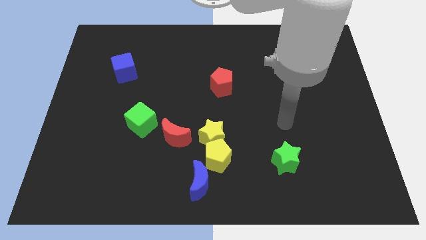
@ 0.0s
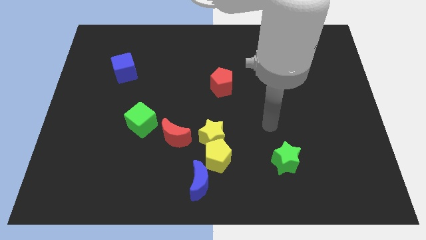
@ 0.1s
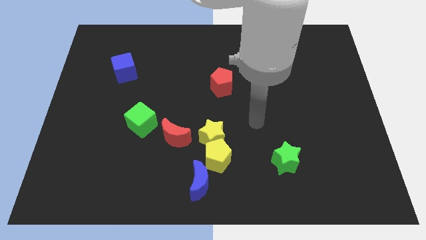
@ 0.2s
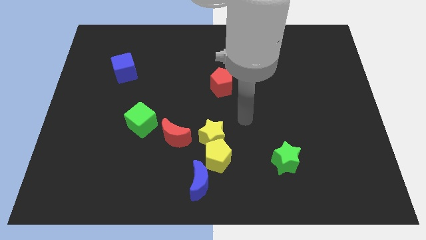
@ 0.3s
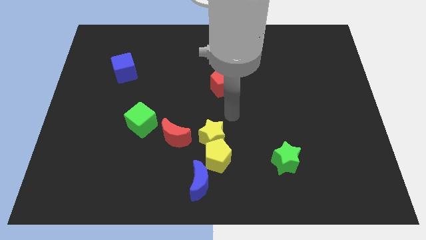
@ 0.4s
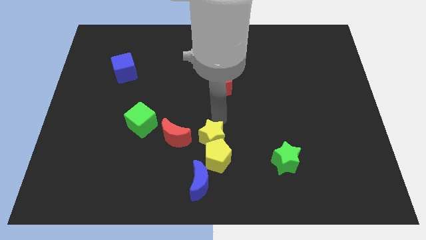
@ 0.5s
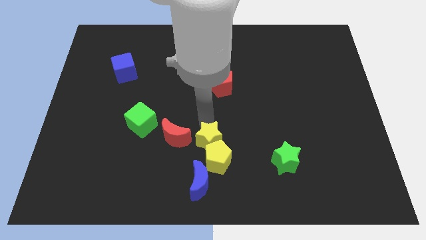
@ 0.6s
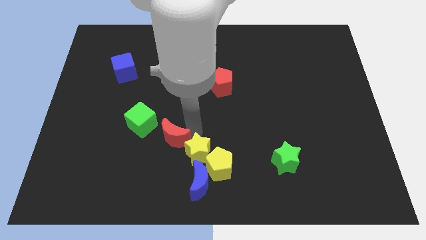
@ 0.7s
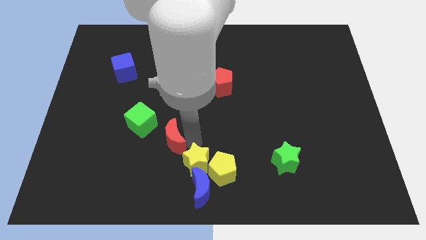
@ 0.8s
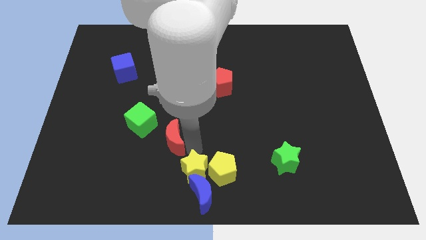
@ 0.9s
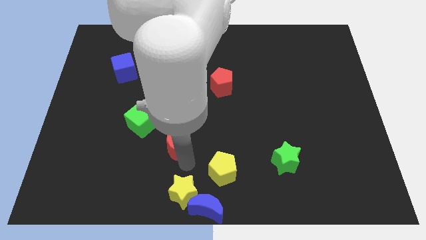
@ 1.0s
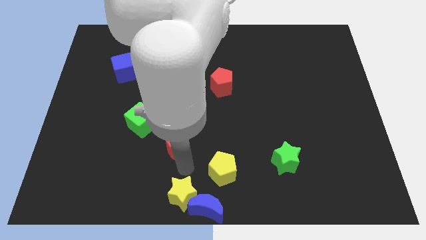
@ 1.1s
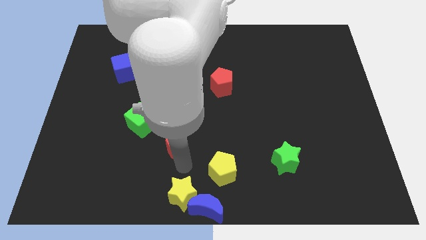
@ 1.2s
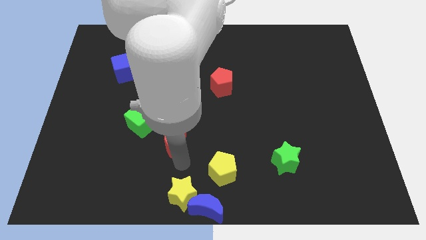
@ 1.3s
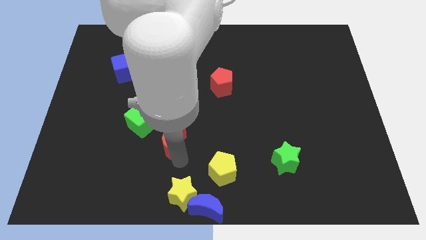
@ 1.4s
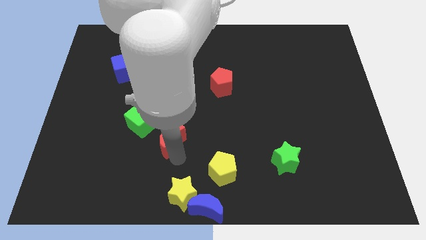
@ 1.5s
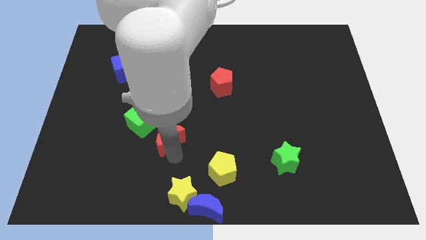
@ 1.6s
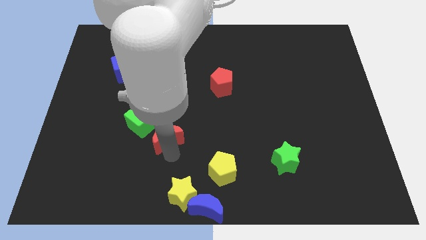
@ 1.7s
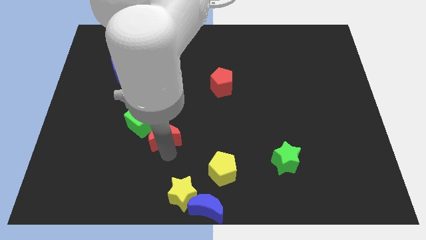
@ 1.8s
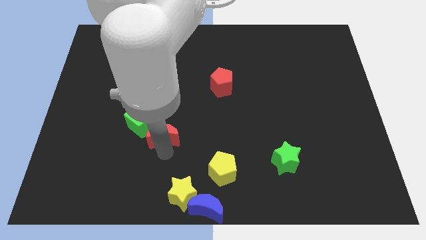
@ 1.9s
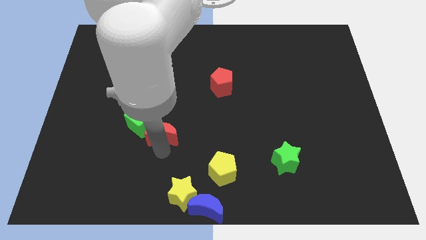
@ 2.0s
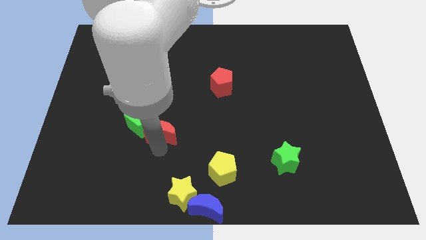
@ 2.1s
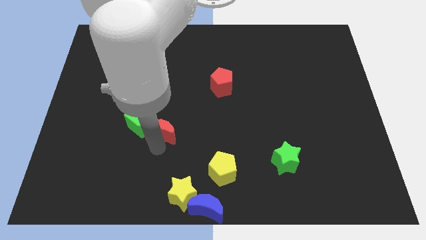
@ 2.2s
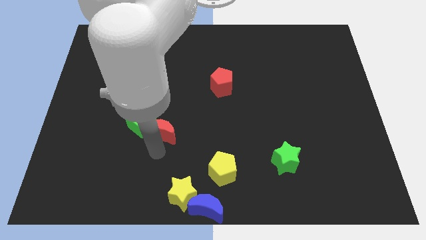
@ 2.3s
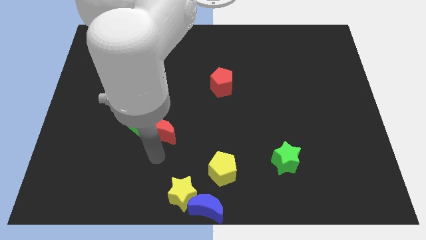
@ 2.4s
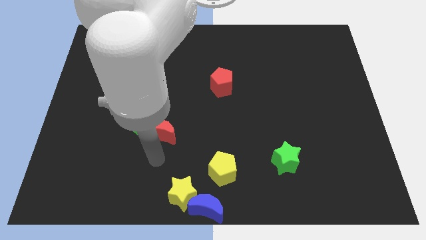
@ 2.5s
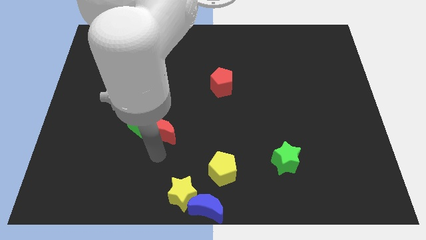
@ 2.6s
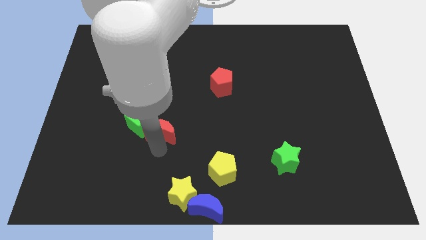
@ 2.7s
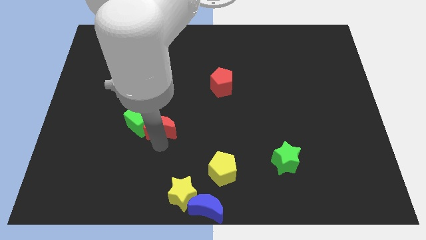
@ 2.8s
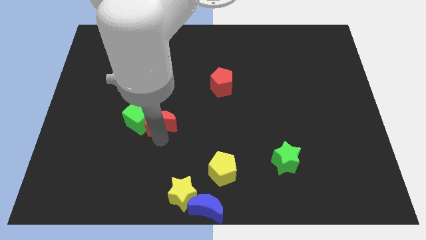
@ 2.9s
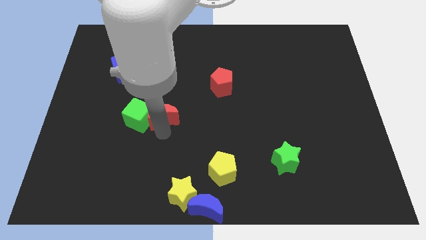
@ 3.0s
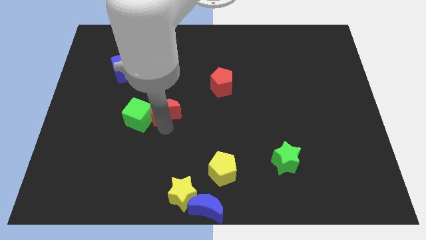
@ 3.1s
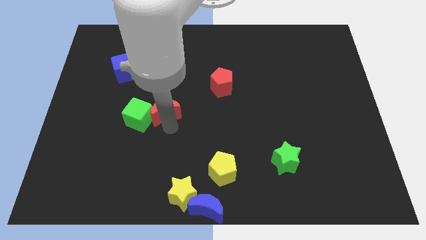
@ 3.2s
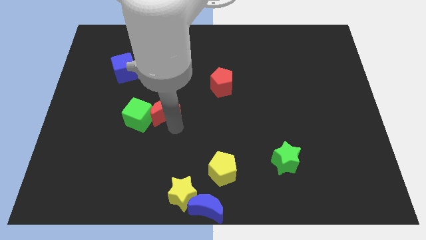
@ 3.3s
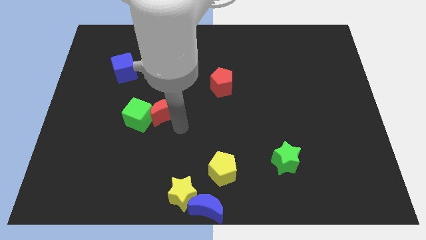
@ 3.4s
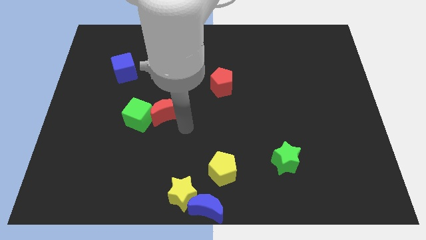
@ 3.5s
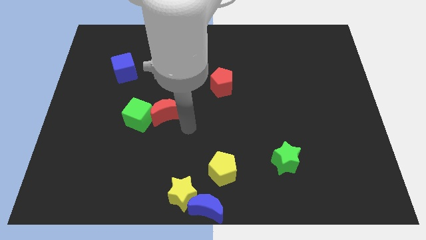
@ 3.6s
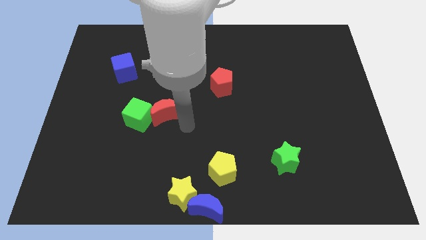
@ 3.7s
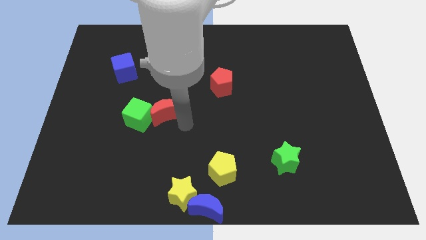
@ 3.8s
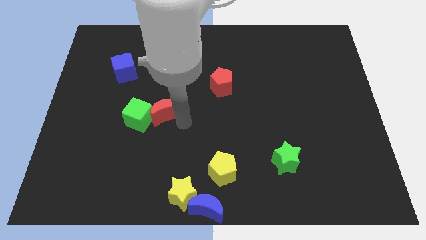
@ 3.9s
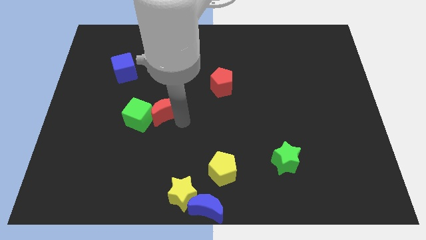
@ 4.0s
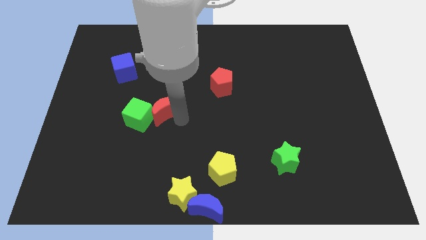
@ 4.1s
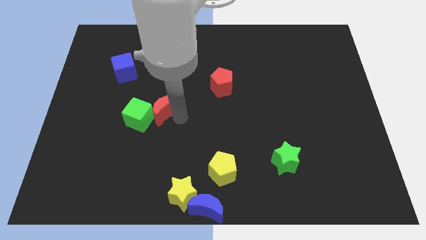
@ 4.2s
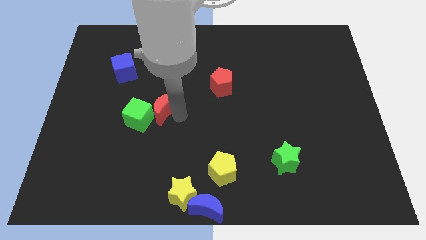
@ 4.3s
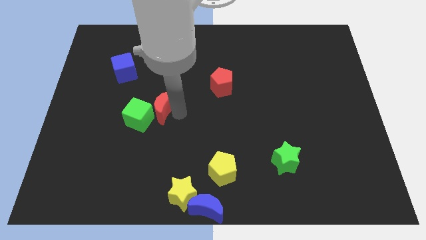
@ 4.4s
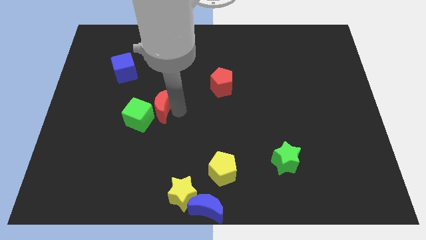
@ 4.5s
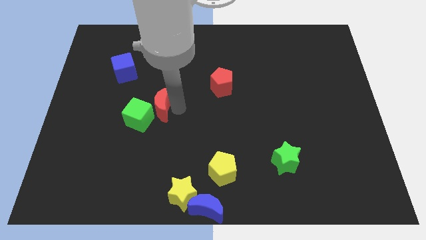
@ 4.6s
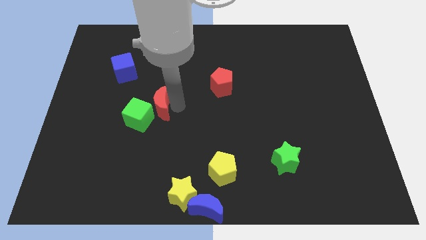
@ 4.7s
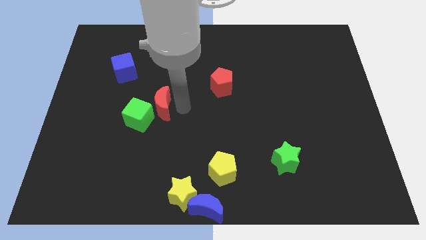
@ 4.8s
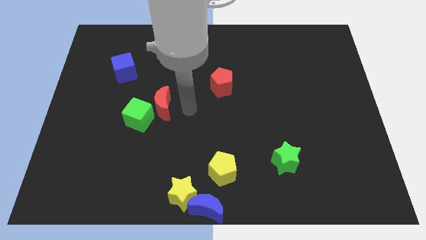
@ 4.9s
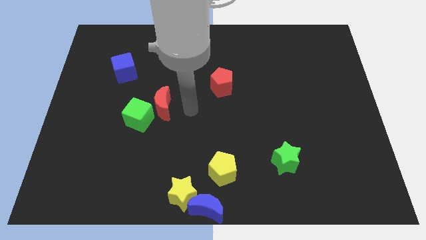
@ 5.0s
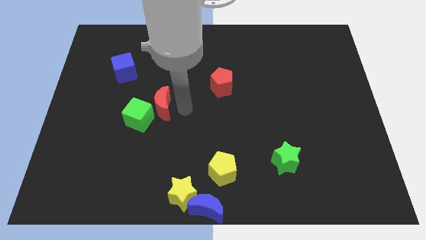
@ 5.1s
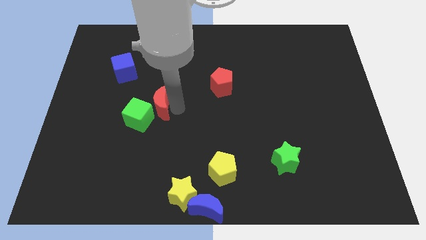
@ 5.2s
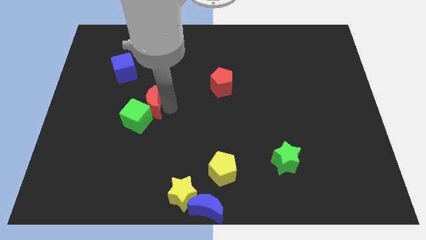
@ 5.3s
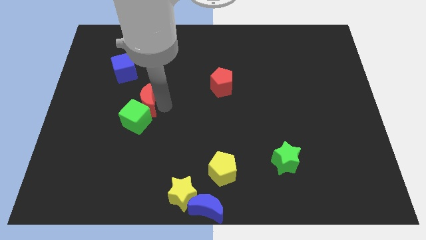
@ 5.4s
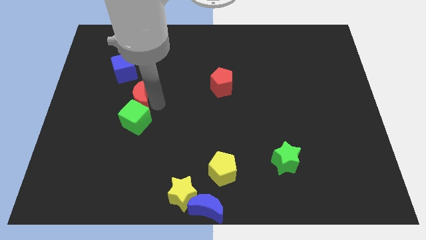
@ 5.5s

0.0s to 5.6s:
slide the red moon to the top left of the green cube

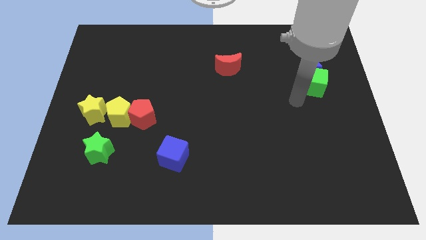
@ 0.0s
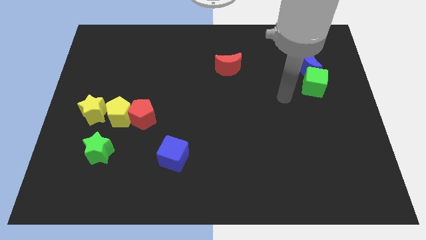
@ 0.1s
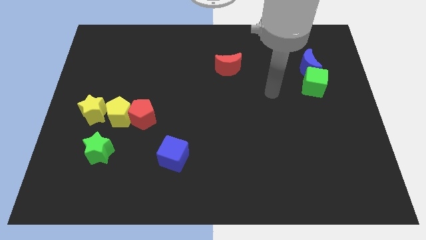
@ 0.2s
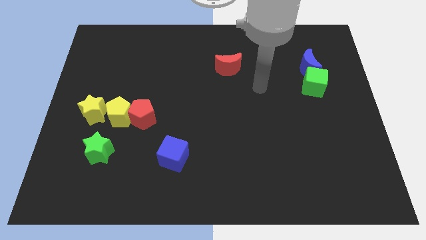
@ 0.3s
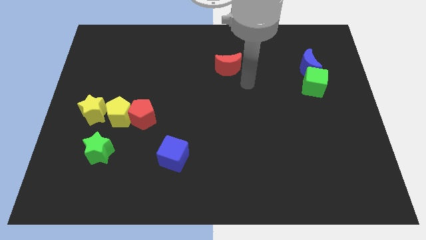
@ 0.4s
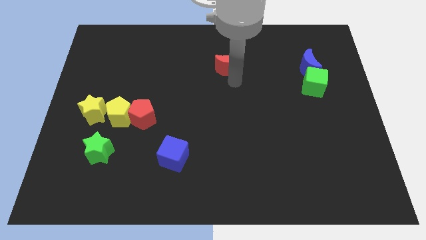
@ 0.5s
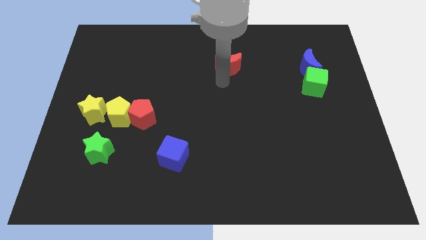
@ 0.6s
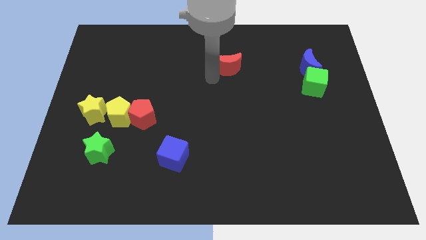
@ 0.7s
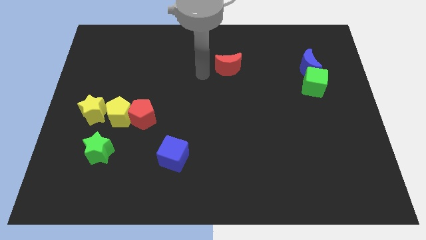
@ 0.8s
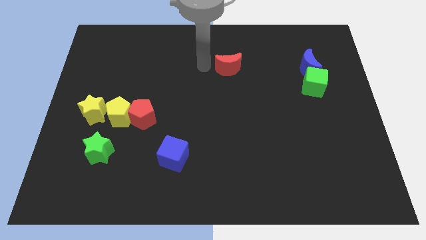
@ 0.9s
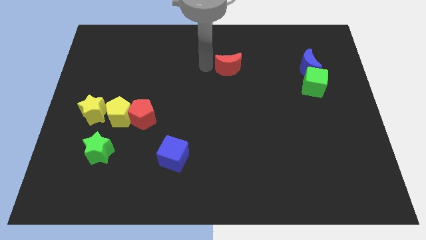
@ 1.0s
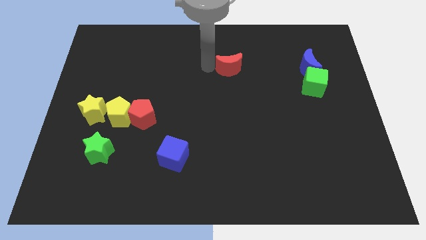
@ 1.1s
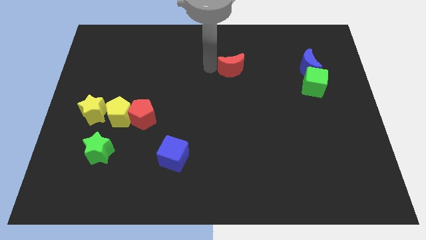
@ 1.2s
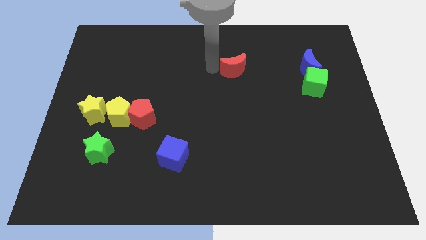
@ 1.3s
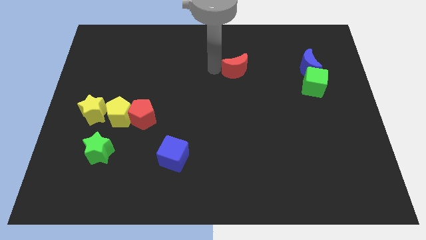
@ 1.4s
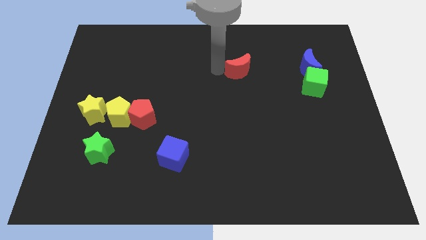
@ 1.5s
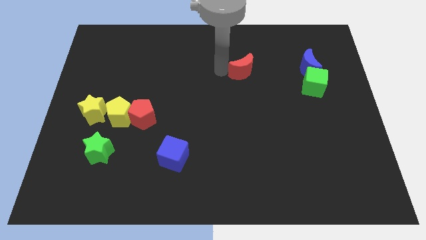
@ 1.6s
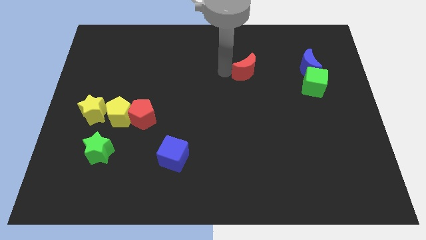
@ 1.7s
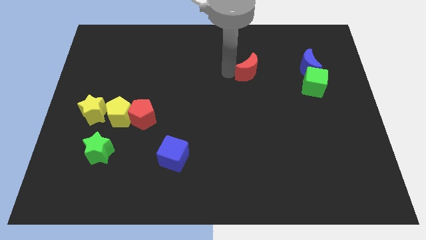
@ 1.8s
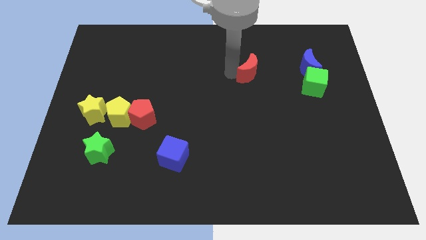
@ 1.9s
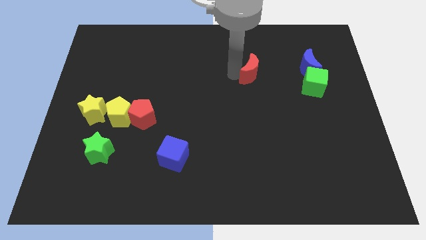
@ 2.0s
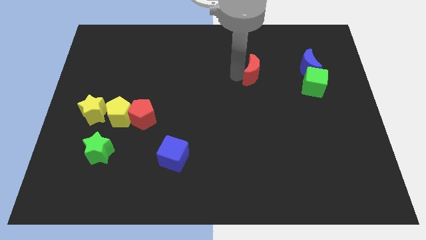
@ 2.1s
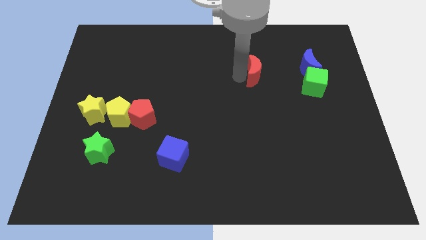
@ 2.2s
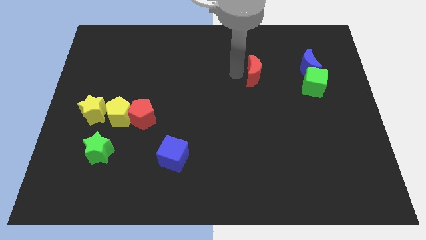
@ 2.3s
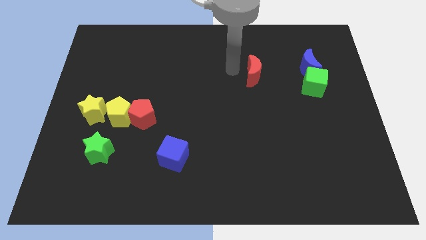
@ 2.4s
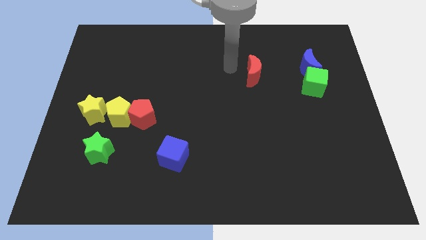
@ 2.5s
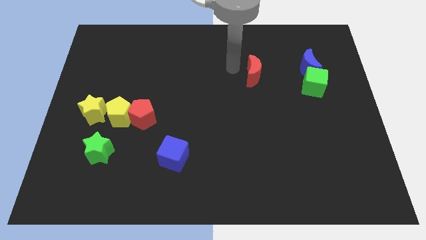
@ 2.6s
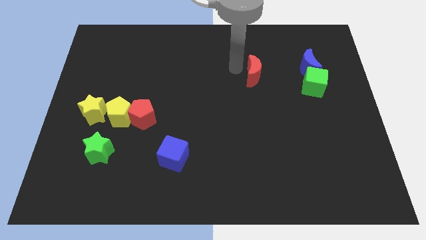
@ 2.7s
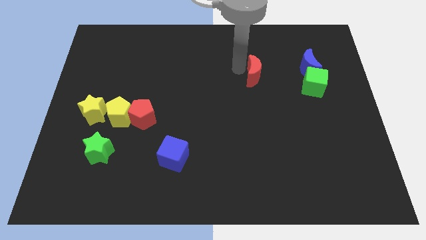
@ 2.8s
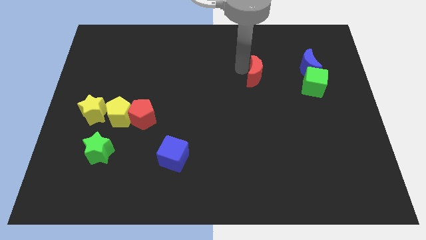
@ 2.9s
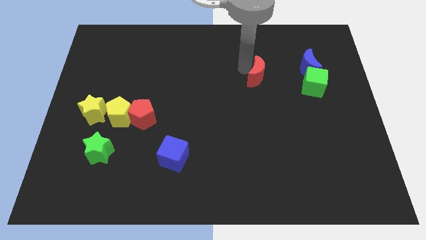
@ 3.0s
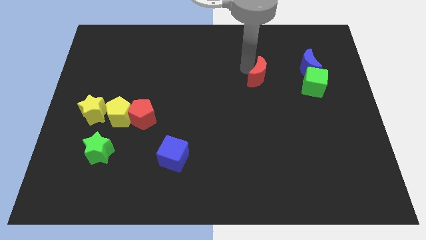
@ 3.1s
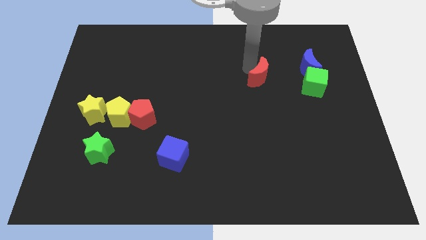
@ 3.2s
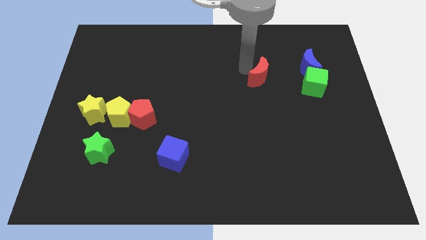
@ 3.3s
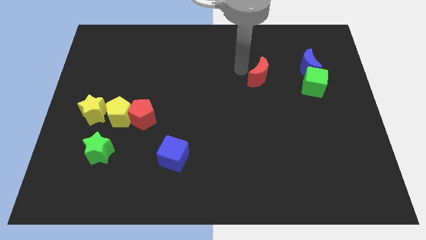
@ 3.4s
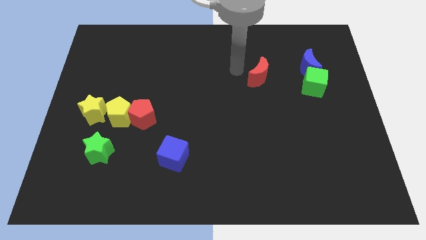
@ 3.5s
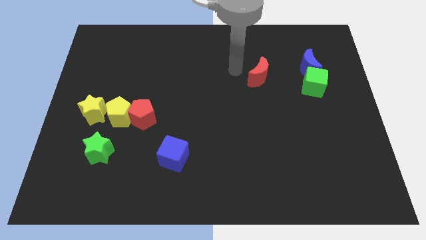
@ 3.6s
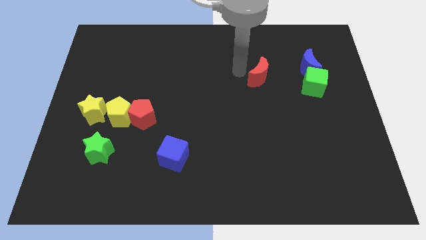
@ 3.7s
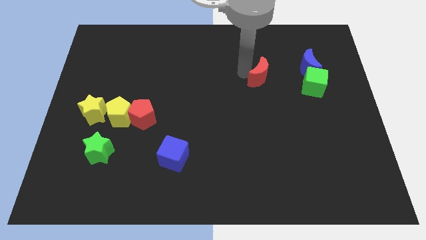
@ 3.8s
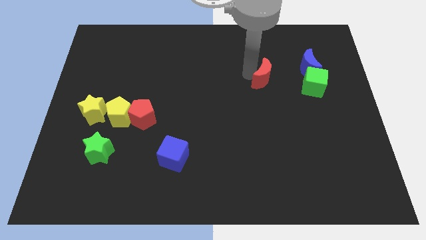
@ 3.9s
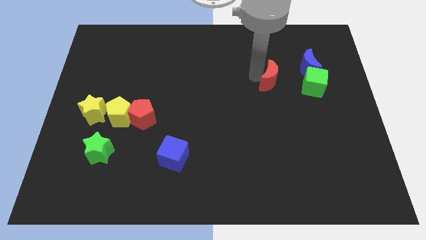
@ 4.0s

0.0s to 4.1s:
push the red moon to the bottom left side of the blue moon
